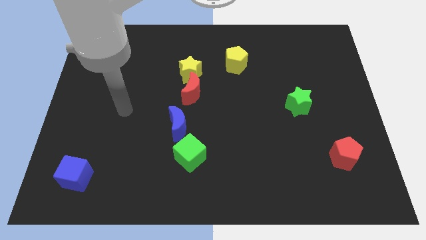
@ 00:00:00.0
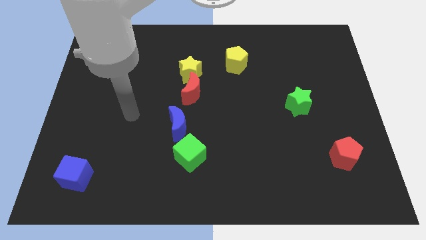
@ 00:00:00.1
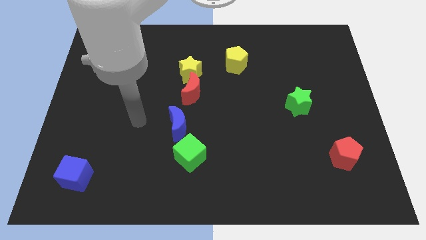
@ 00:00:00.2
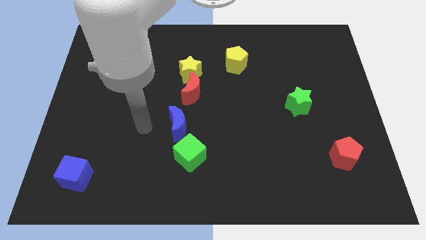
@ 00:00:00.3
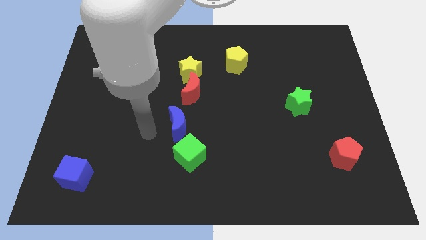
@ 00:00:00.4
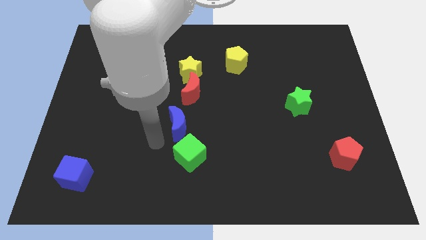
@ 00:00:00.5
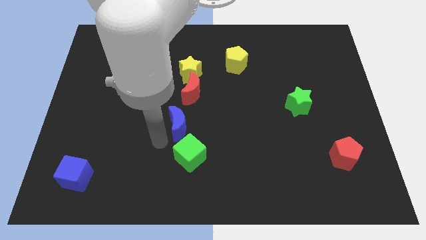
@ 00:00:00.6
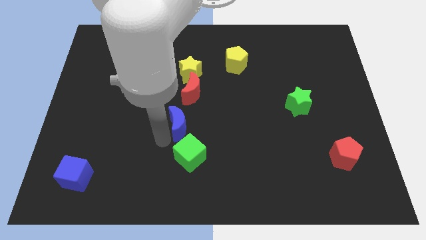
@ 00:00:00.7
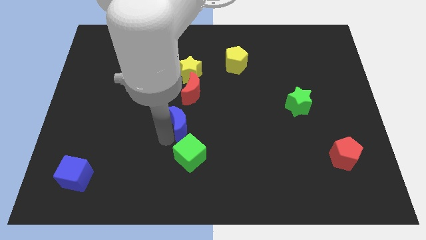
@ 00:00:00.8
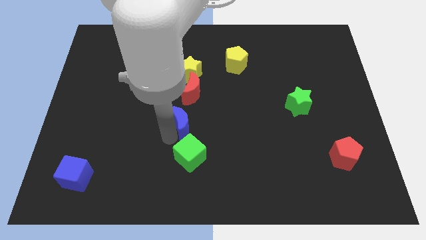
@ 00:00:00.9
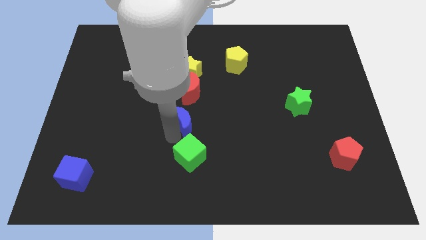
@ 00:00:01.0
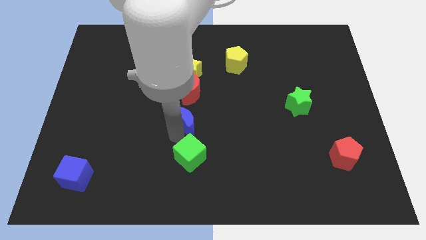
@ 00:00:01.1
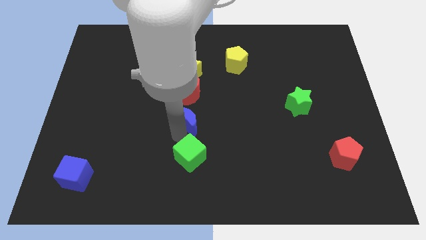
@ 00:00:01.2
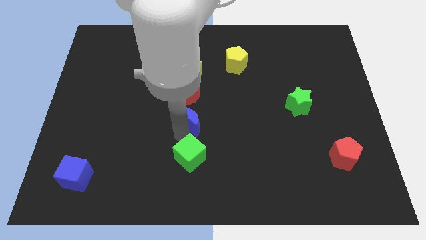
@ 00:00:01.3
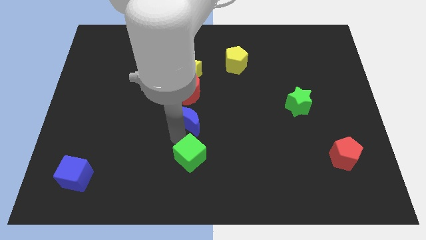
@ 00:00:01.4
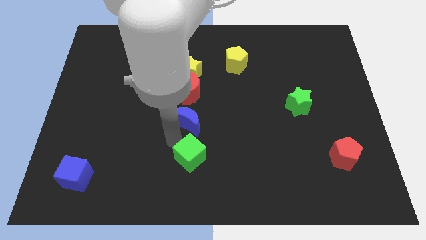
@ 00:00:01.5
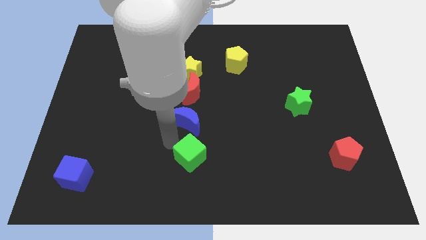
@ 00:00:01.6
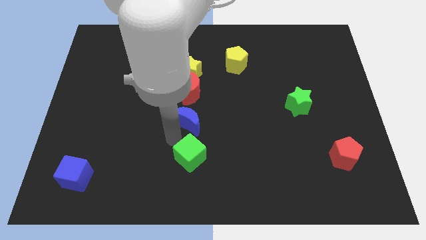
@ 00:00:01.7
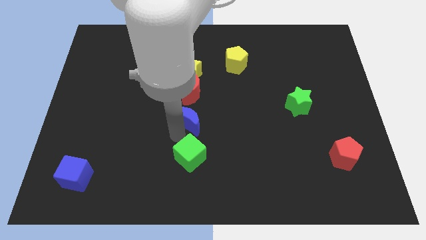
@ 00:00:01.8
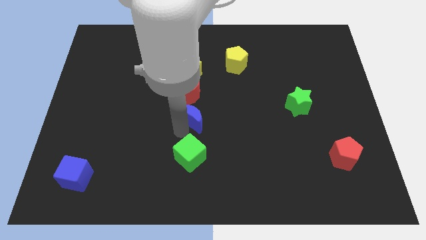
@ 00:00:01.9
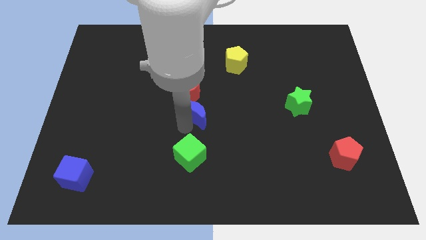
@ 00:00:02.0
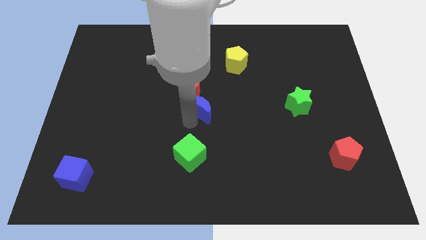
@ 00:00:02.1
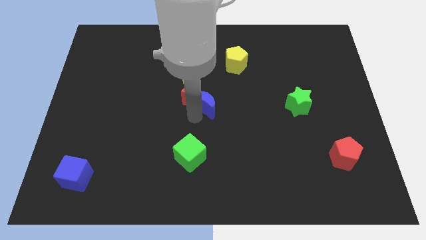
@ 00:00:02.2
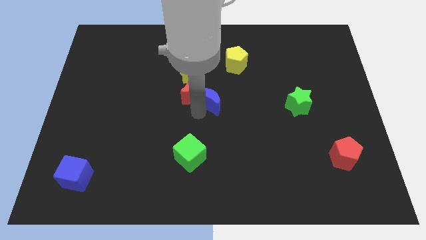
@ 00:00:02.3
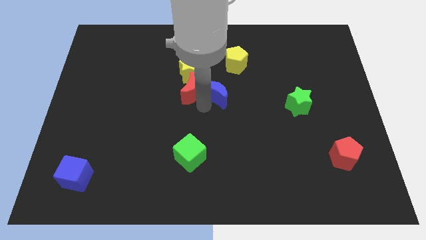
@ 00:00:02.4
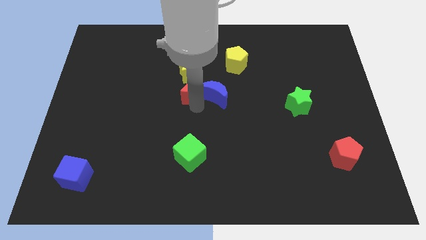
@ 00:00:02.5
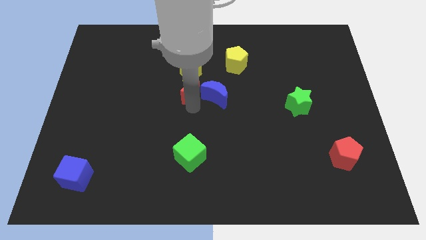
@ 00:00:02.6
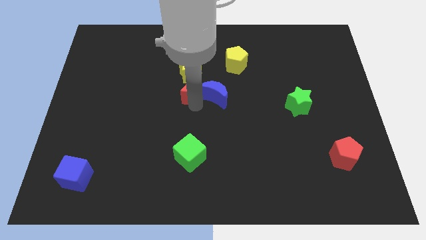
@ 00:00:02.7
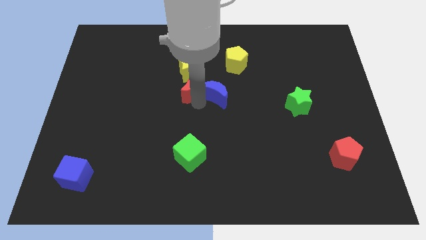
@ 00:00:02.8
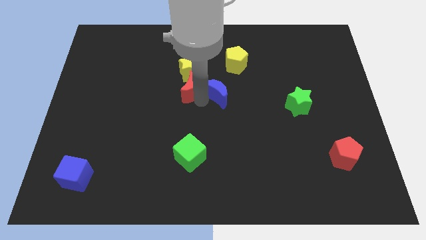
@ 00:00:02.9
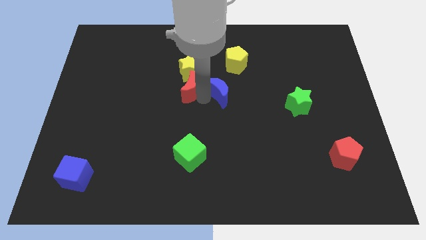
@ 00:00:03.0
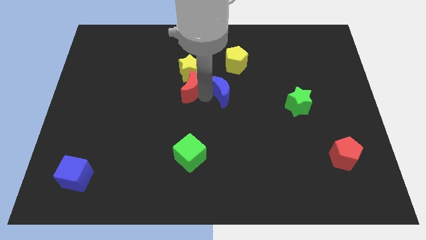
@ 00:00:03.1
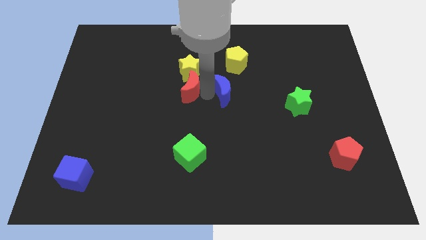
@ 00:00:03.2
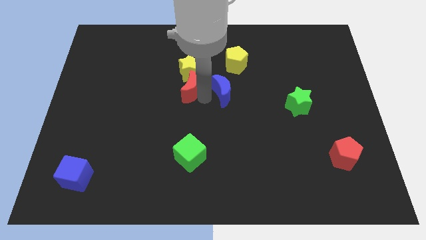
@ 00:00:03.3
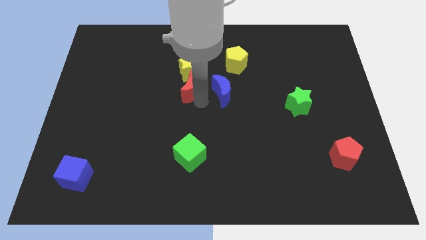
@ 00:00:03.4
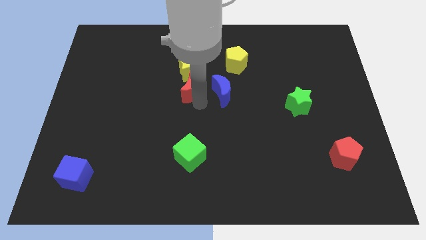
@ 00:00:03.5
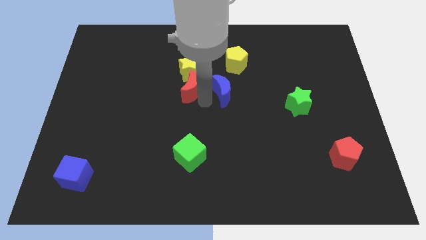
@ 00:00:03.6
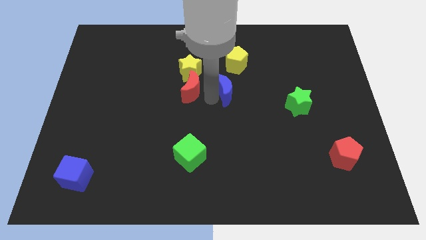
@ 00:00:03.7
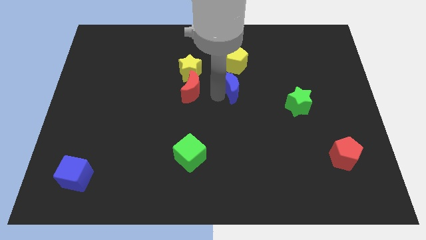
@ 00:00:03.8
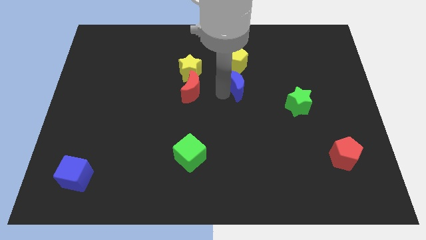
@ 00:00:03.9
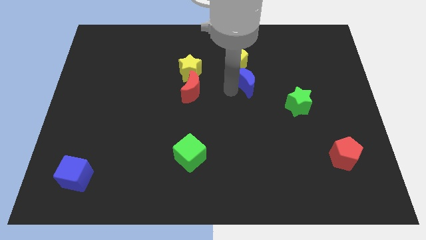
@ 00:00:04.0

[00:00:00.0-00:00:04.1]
slide the blue moon upwards and to the right diagonally

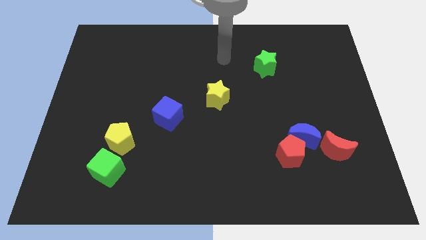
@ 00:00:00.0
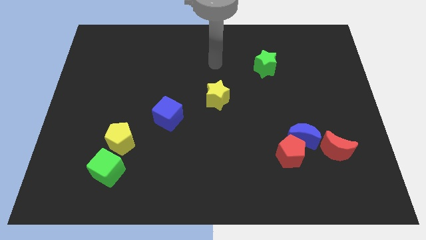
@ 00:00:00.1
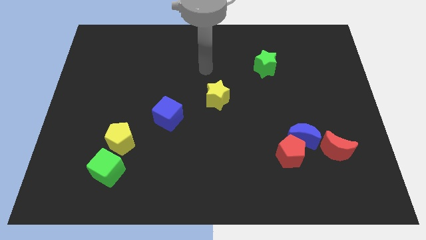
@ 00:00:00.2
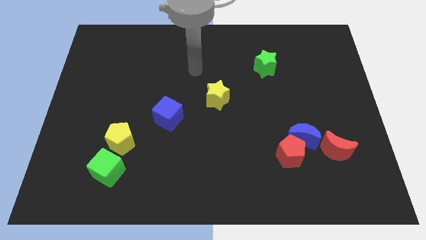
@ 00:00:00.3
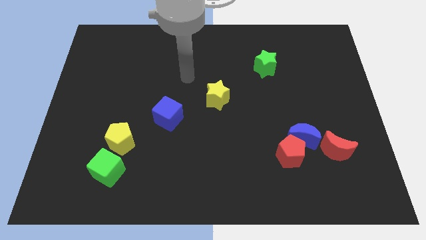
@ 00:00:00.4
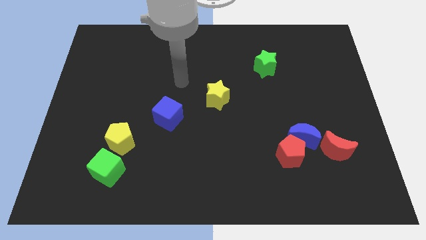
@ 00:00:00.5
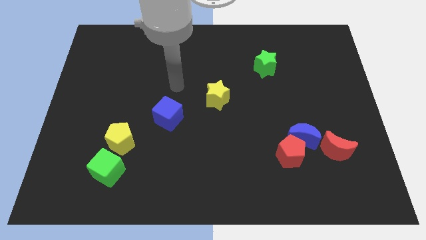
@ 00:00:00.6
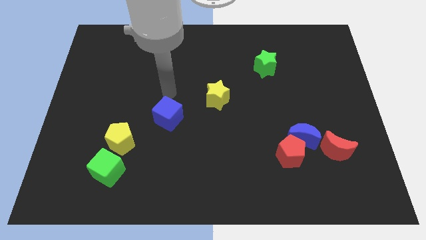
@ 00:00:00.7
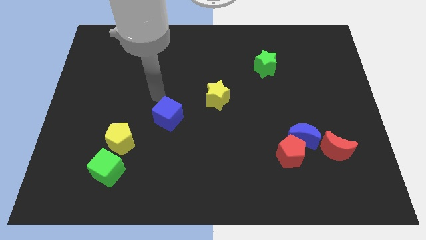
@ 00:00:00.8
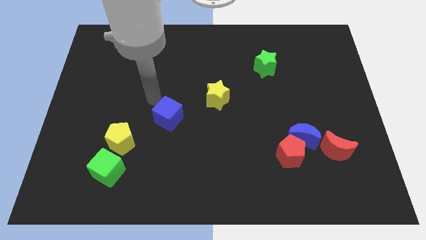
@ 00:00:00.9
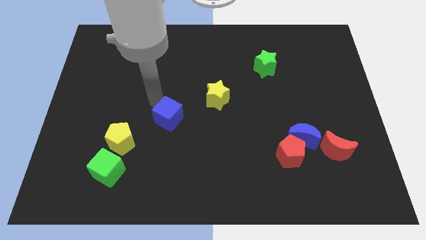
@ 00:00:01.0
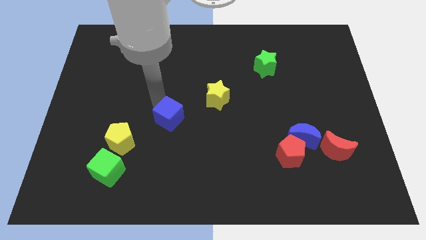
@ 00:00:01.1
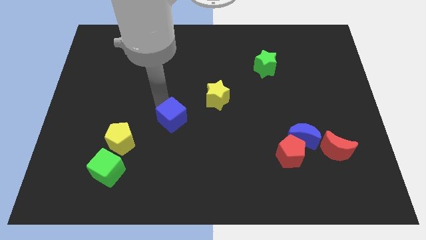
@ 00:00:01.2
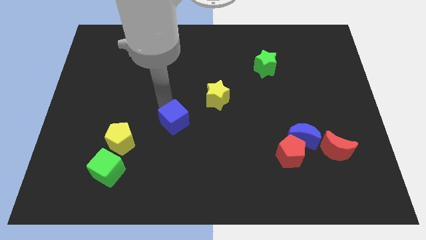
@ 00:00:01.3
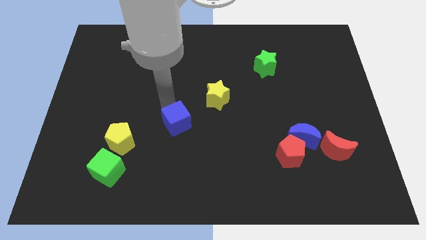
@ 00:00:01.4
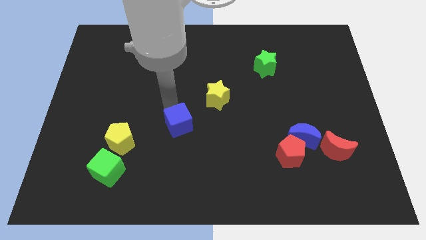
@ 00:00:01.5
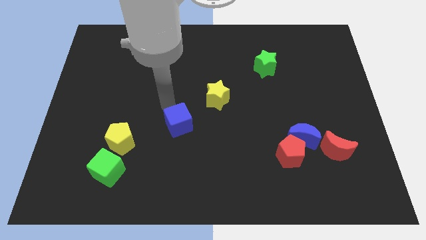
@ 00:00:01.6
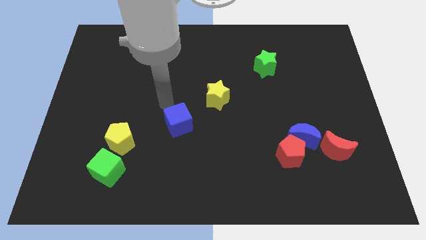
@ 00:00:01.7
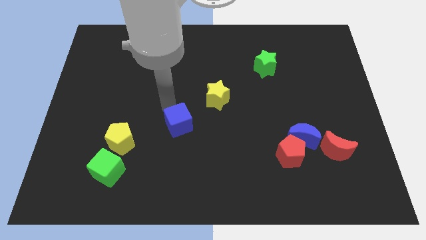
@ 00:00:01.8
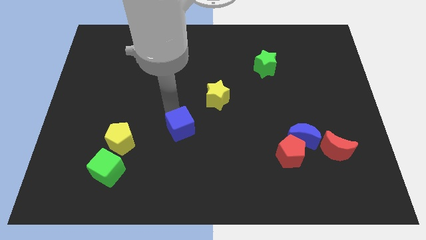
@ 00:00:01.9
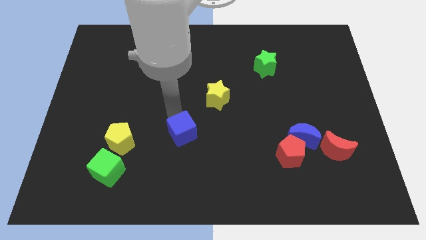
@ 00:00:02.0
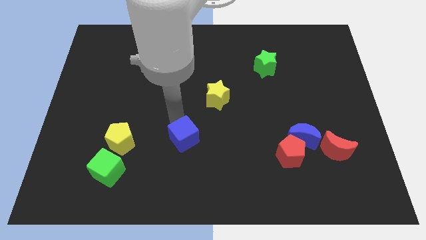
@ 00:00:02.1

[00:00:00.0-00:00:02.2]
slightly push the blue cube downwards and right diagonally

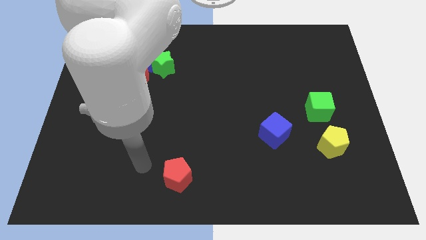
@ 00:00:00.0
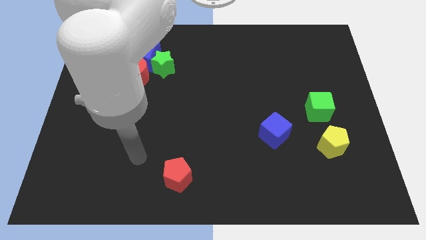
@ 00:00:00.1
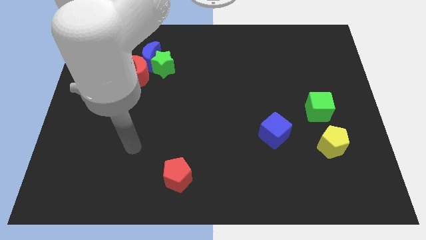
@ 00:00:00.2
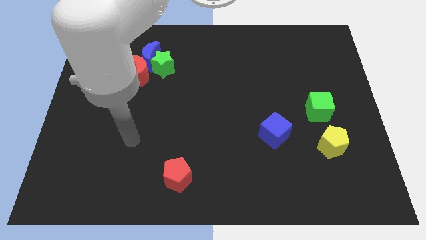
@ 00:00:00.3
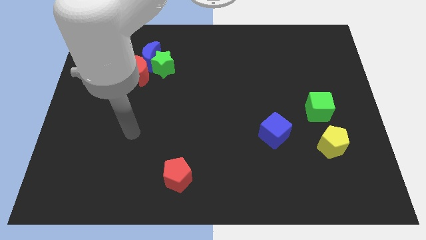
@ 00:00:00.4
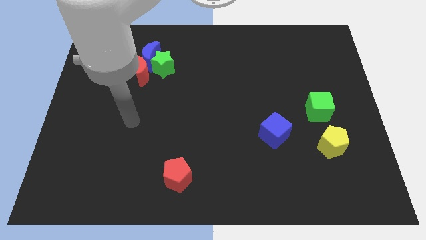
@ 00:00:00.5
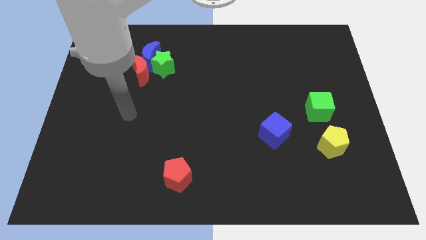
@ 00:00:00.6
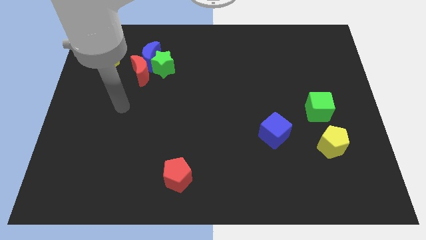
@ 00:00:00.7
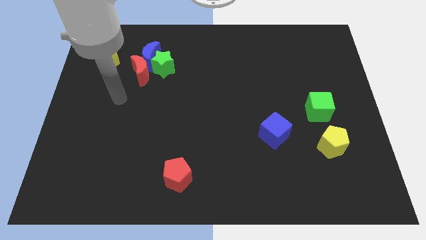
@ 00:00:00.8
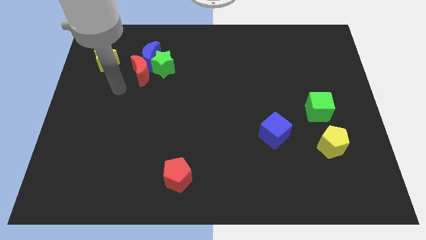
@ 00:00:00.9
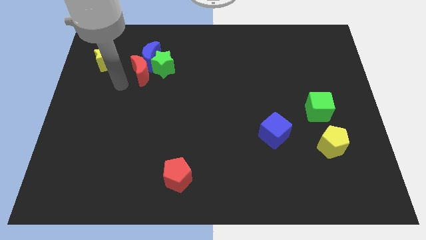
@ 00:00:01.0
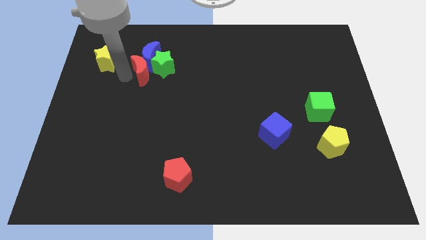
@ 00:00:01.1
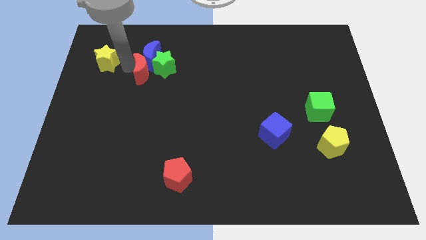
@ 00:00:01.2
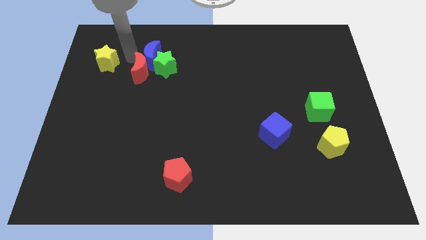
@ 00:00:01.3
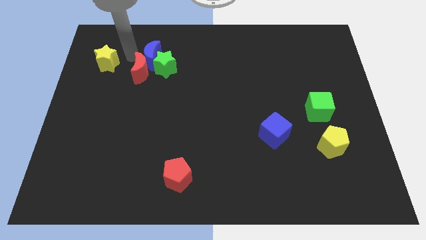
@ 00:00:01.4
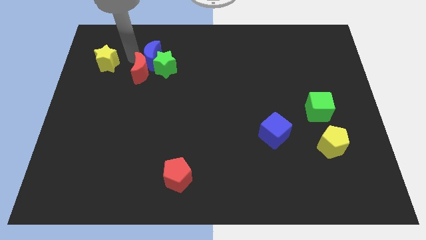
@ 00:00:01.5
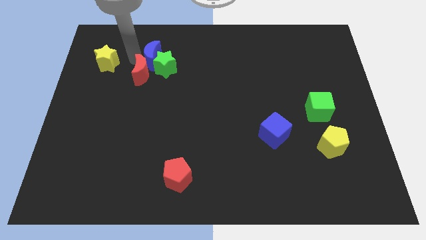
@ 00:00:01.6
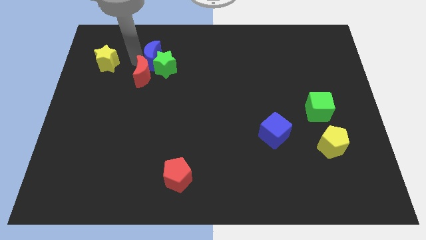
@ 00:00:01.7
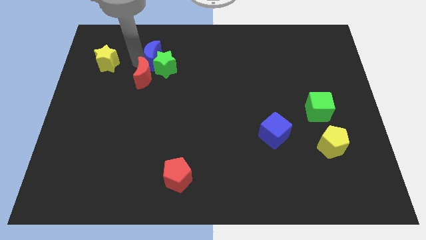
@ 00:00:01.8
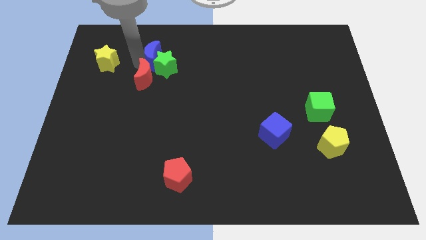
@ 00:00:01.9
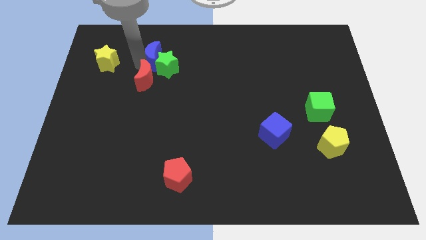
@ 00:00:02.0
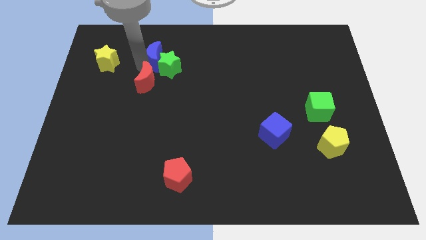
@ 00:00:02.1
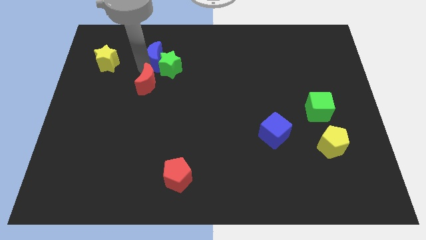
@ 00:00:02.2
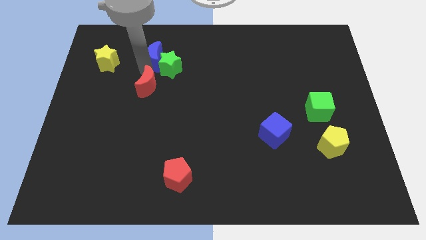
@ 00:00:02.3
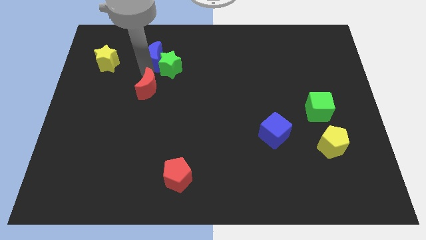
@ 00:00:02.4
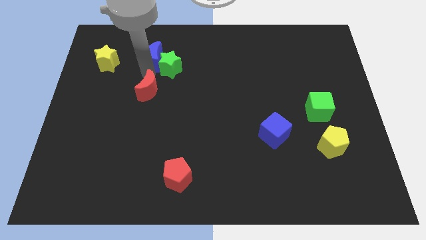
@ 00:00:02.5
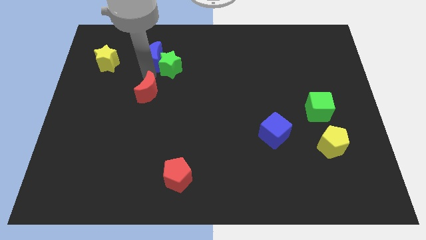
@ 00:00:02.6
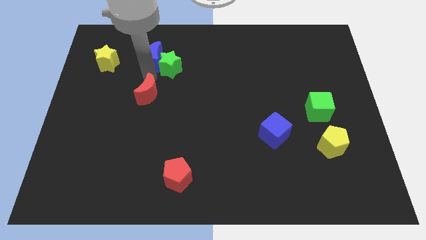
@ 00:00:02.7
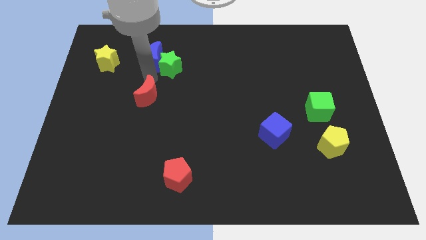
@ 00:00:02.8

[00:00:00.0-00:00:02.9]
push the red moon diagonally downwards and right a little
